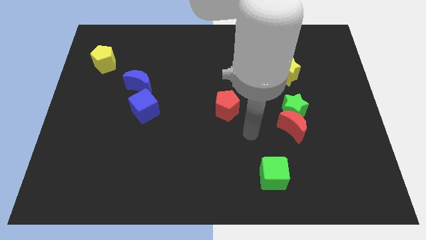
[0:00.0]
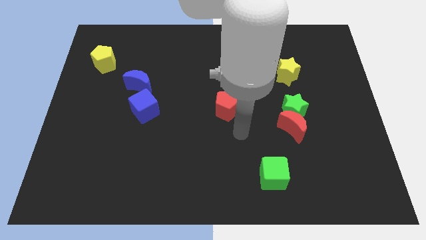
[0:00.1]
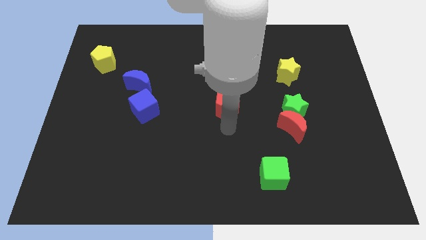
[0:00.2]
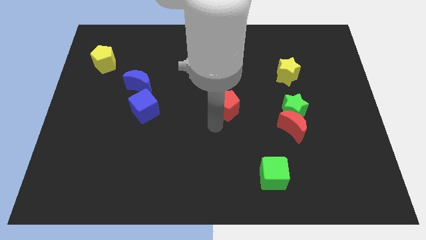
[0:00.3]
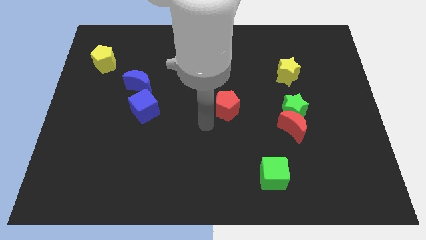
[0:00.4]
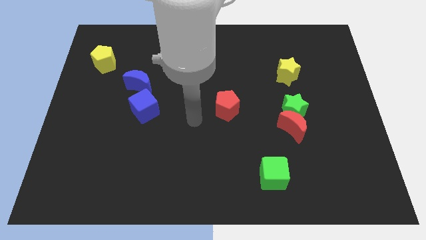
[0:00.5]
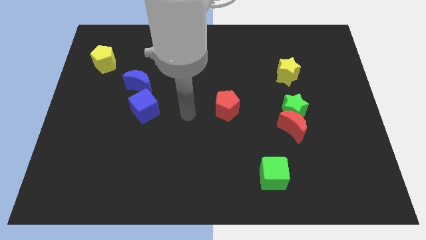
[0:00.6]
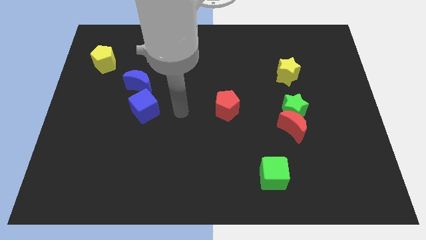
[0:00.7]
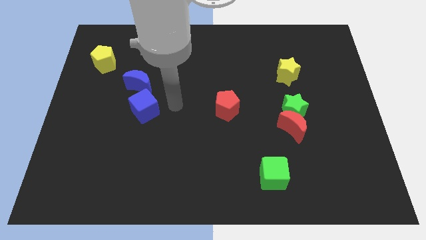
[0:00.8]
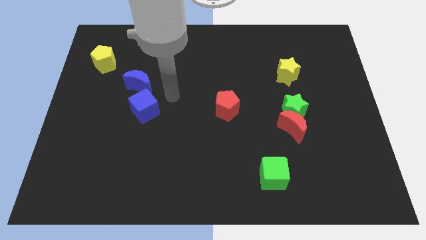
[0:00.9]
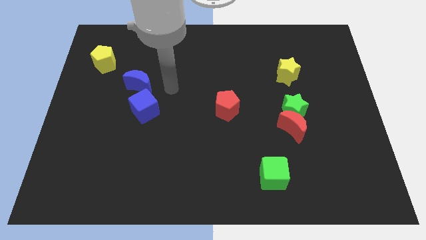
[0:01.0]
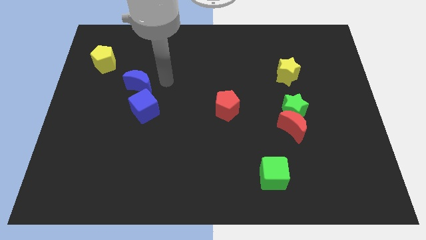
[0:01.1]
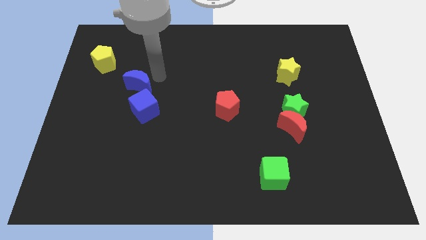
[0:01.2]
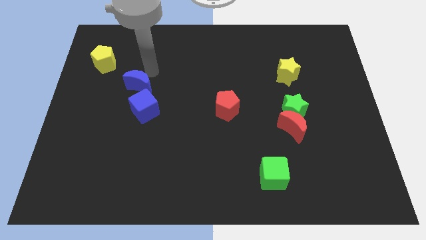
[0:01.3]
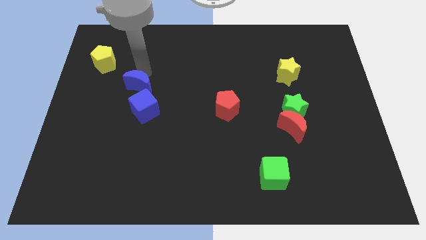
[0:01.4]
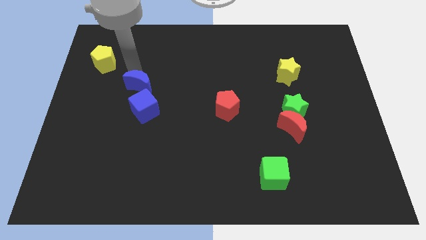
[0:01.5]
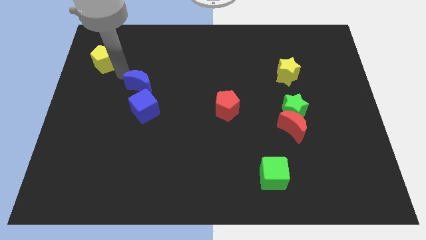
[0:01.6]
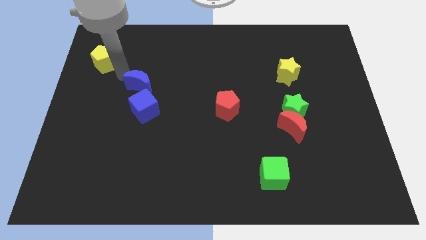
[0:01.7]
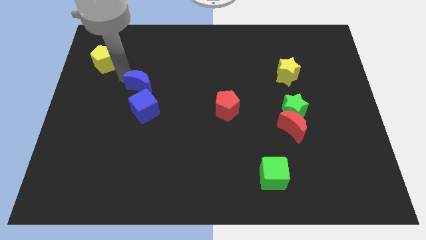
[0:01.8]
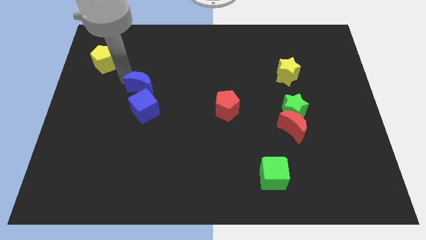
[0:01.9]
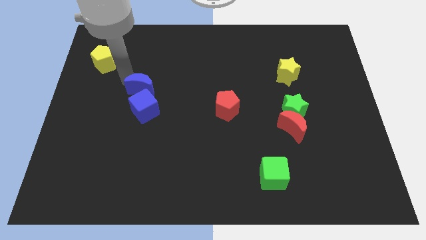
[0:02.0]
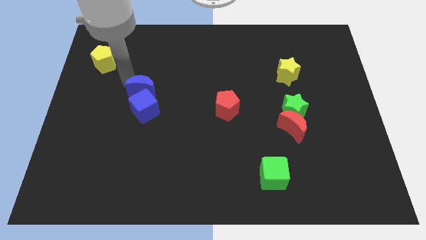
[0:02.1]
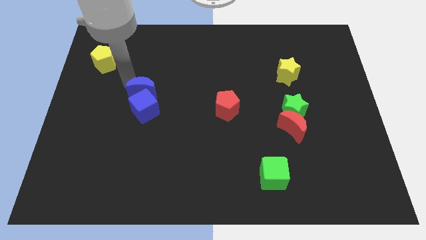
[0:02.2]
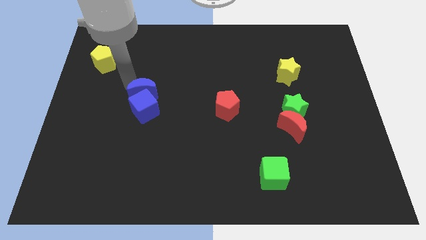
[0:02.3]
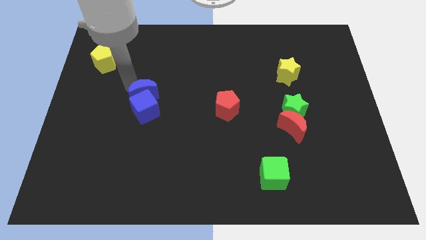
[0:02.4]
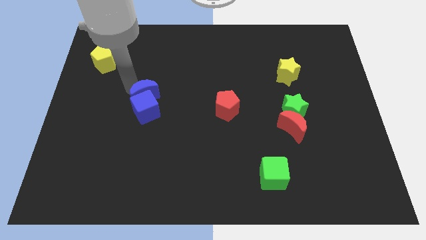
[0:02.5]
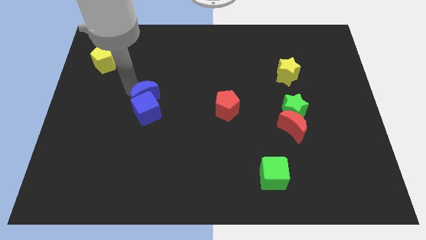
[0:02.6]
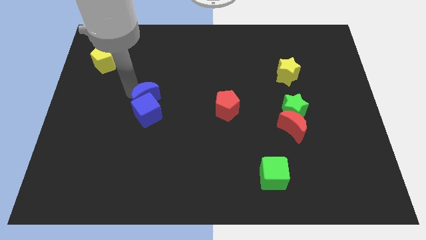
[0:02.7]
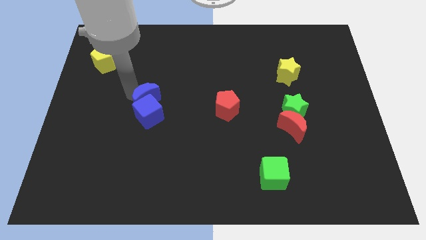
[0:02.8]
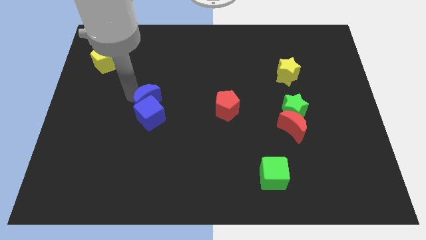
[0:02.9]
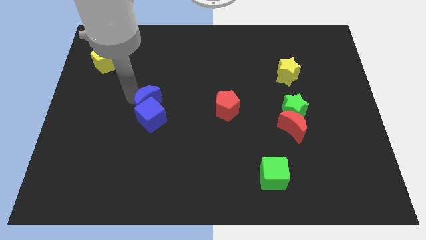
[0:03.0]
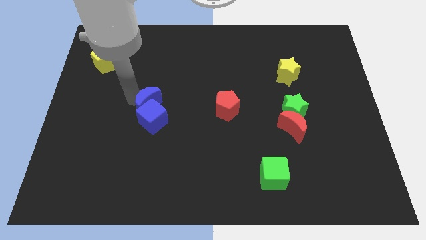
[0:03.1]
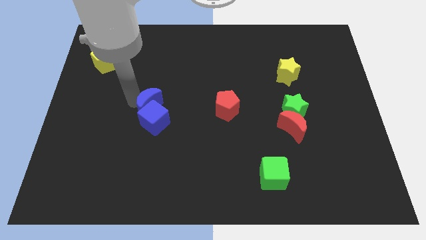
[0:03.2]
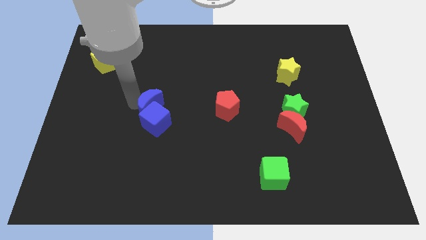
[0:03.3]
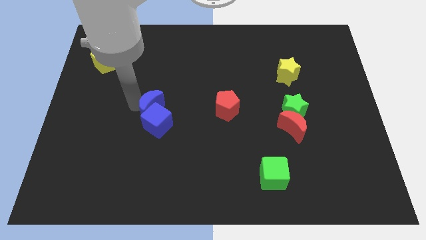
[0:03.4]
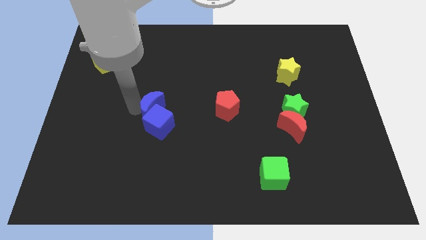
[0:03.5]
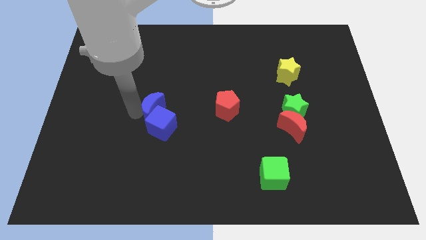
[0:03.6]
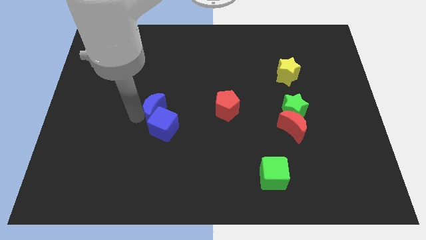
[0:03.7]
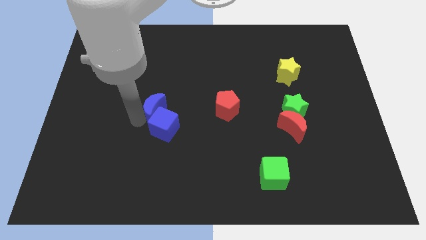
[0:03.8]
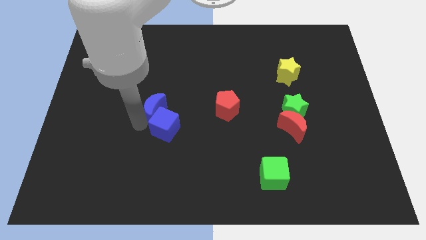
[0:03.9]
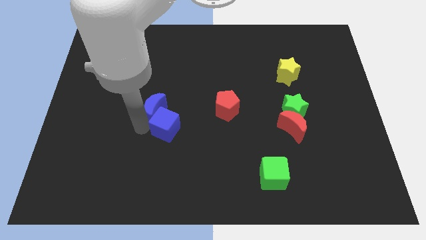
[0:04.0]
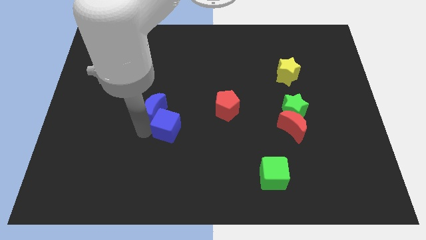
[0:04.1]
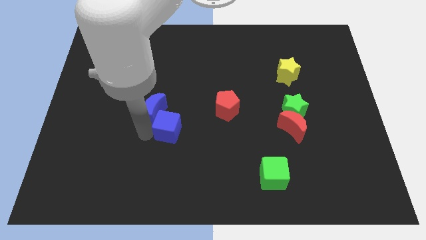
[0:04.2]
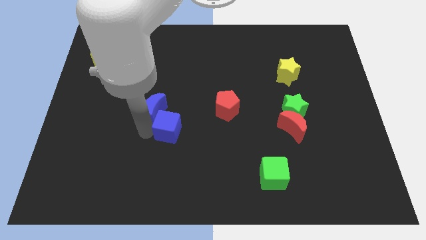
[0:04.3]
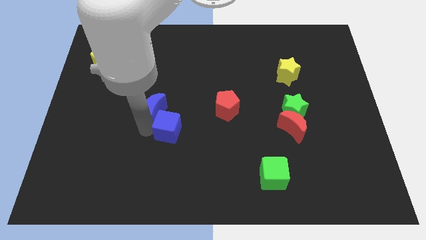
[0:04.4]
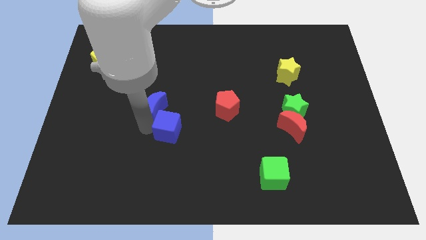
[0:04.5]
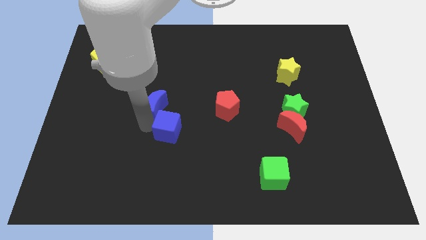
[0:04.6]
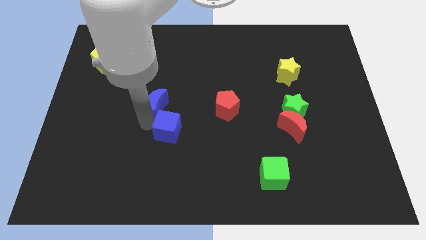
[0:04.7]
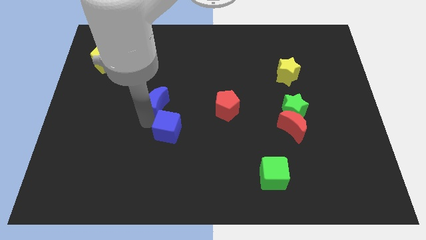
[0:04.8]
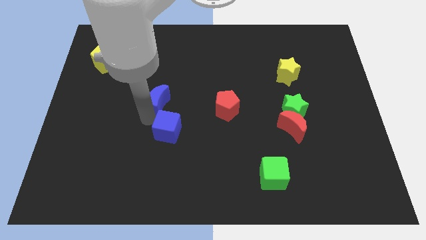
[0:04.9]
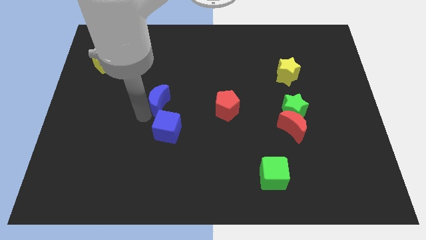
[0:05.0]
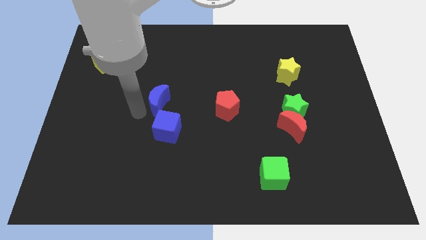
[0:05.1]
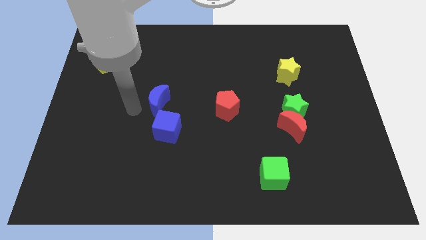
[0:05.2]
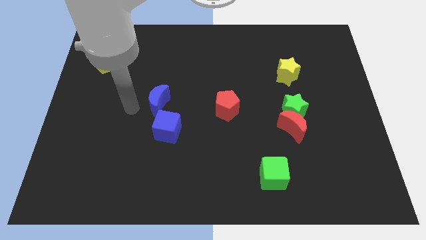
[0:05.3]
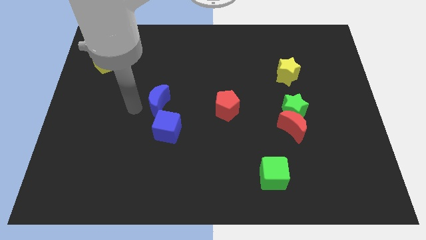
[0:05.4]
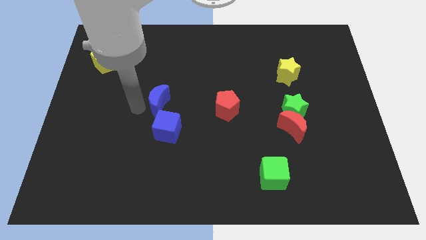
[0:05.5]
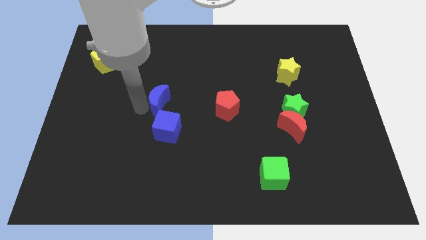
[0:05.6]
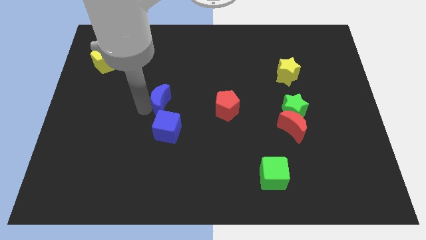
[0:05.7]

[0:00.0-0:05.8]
push the blue moon to the middle of the board
